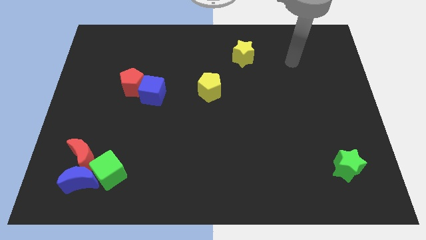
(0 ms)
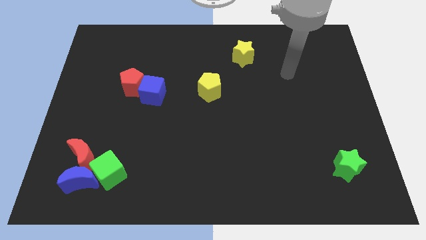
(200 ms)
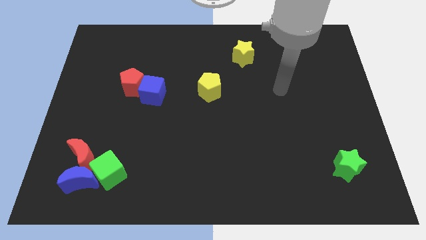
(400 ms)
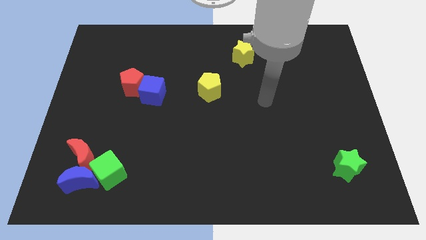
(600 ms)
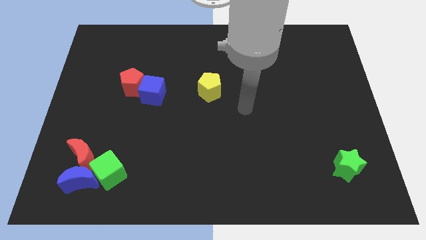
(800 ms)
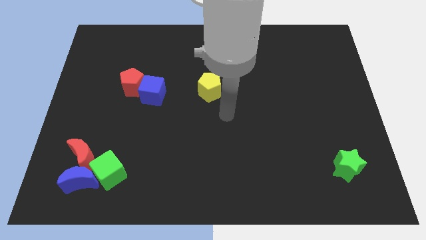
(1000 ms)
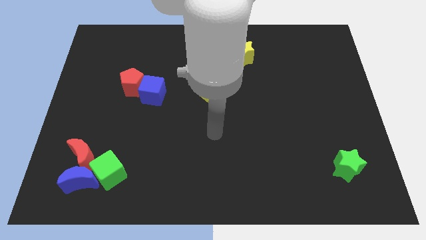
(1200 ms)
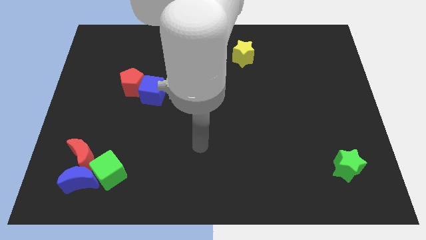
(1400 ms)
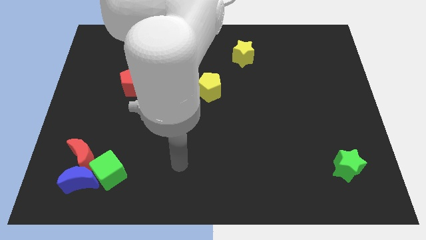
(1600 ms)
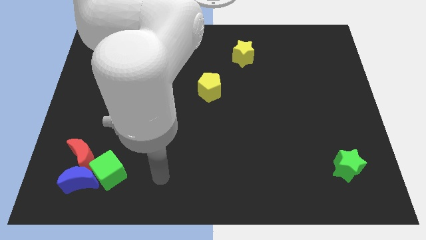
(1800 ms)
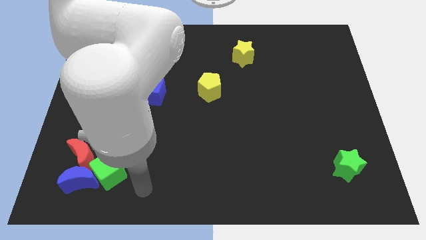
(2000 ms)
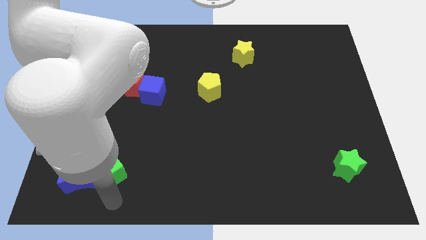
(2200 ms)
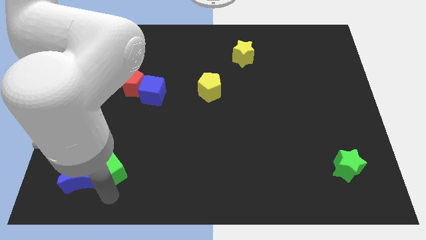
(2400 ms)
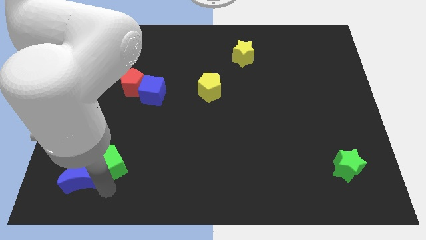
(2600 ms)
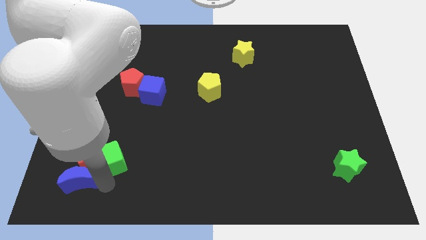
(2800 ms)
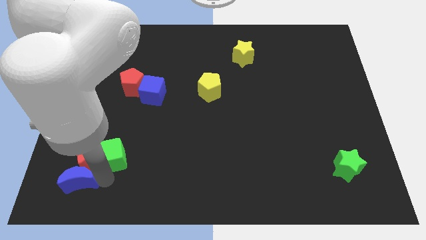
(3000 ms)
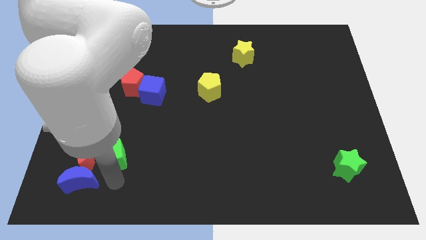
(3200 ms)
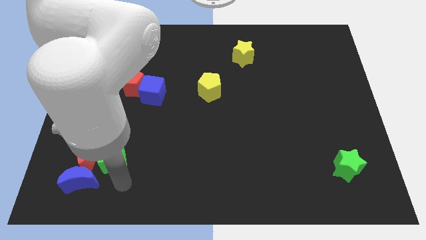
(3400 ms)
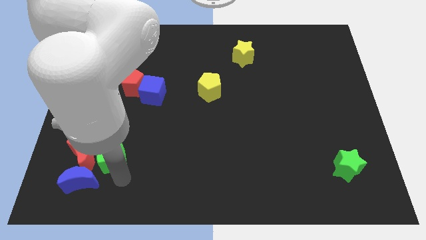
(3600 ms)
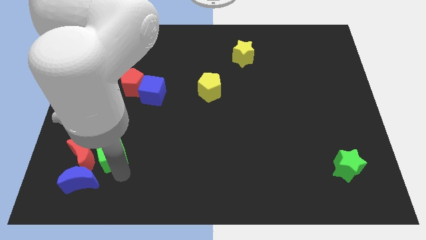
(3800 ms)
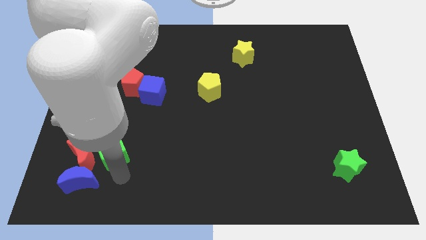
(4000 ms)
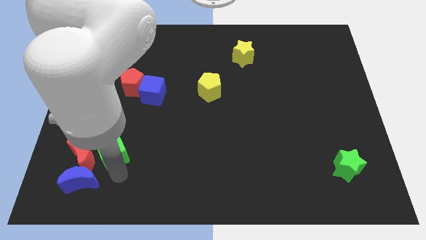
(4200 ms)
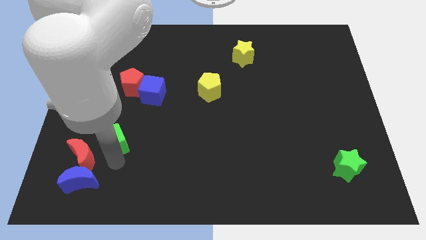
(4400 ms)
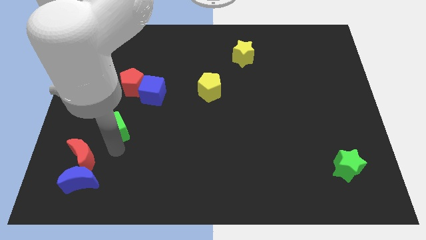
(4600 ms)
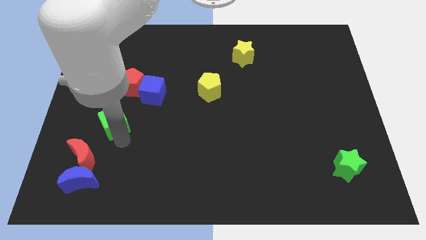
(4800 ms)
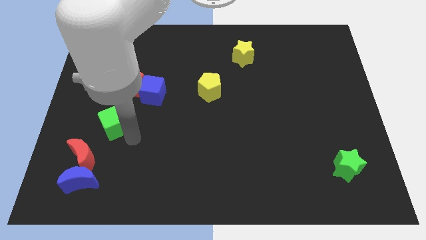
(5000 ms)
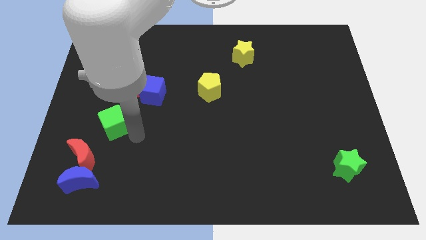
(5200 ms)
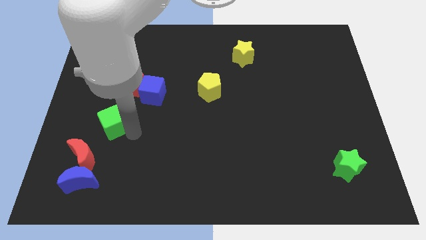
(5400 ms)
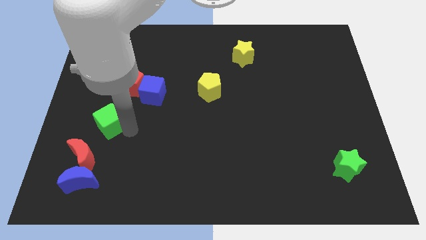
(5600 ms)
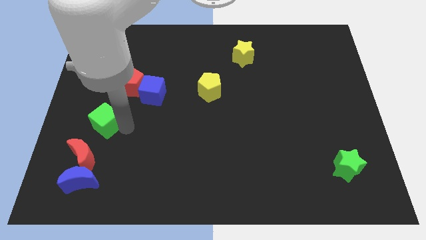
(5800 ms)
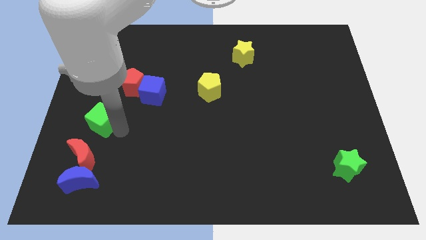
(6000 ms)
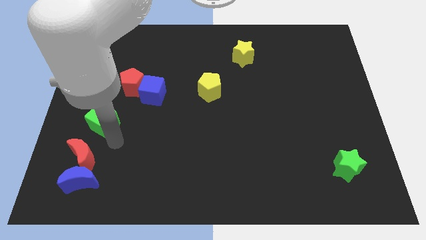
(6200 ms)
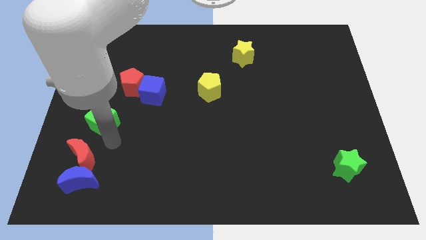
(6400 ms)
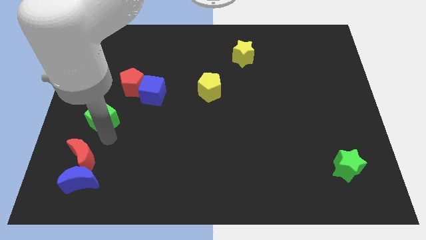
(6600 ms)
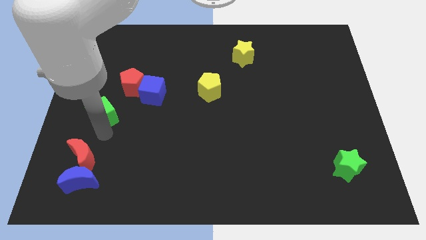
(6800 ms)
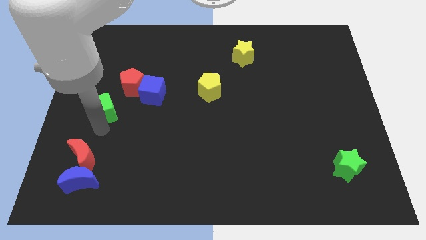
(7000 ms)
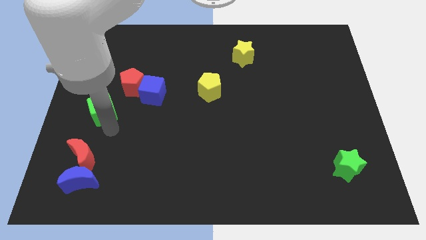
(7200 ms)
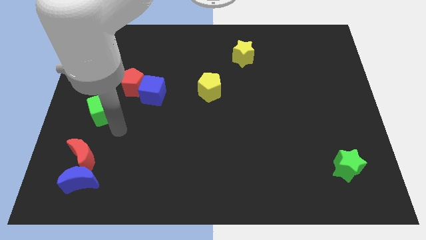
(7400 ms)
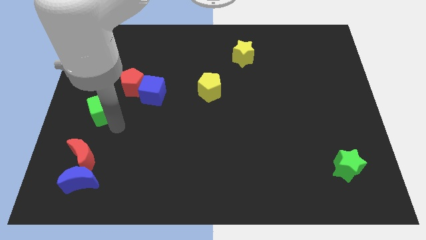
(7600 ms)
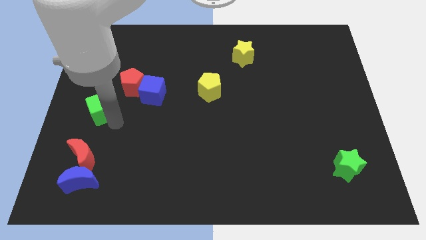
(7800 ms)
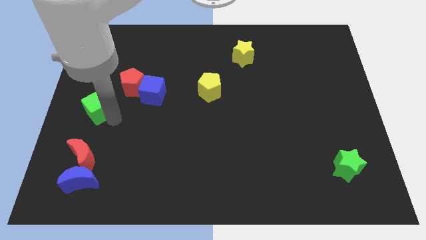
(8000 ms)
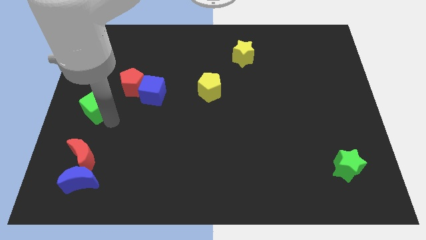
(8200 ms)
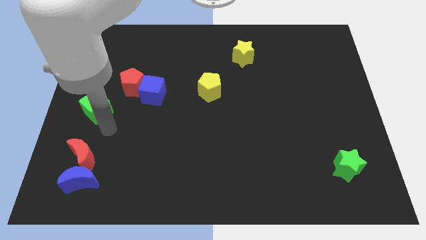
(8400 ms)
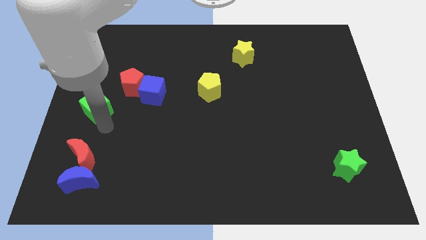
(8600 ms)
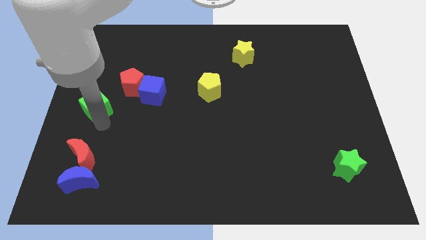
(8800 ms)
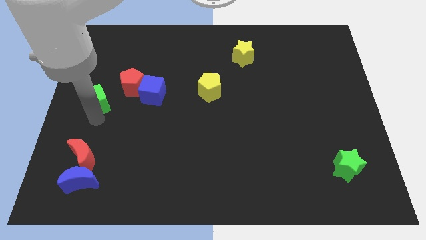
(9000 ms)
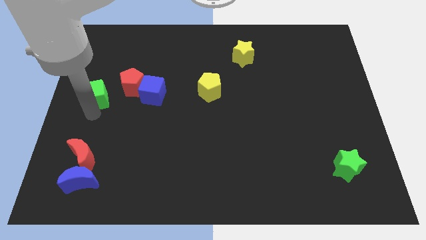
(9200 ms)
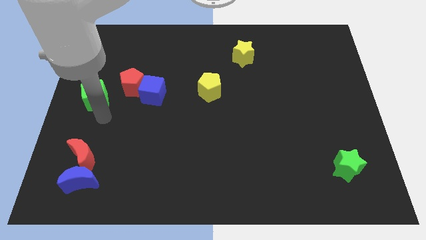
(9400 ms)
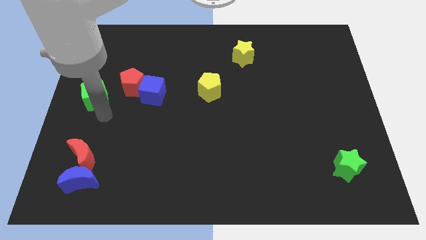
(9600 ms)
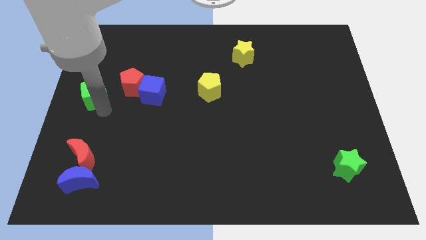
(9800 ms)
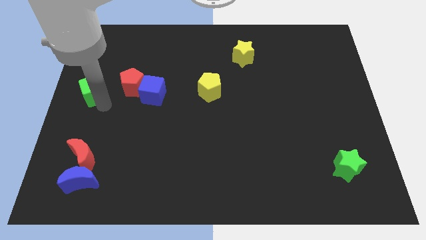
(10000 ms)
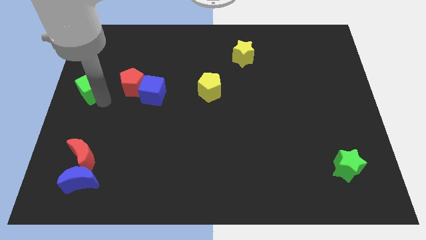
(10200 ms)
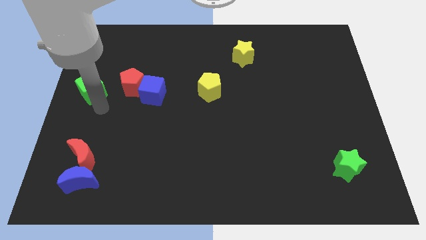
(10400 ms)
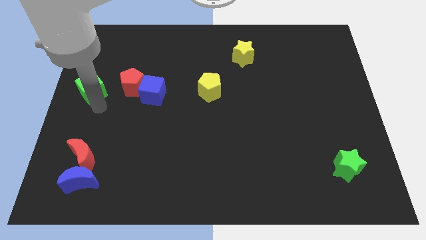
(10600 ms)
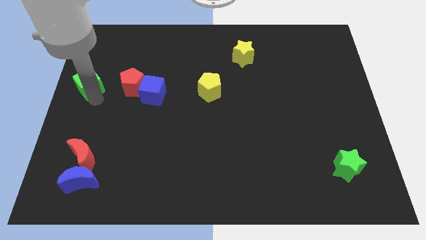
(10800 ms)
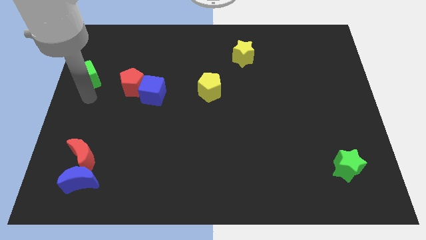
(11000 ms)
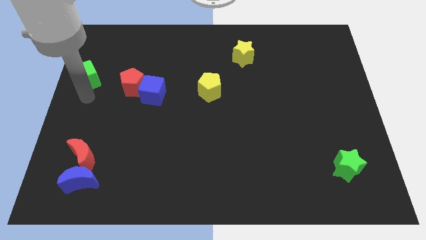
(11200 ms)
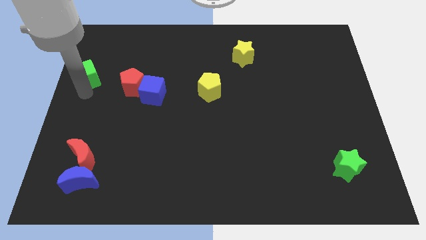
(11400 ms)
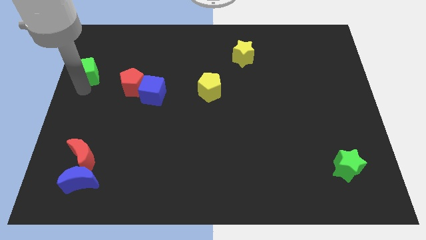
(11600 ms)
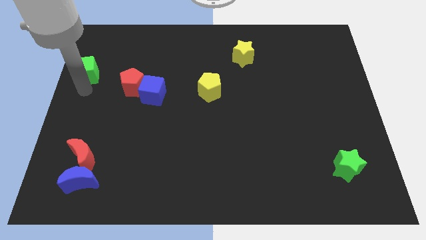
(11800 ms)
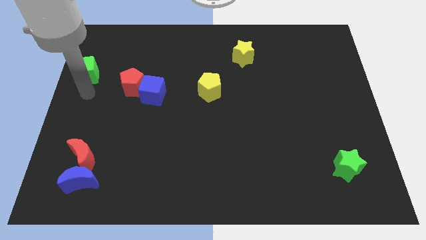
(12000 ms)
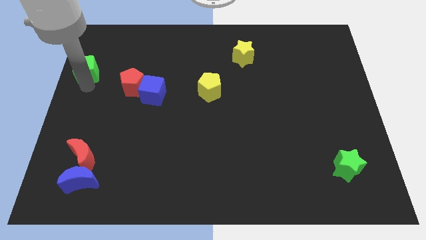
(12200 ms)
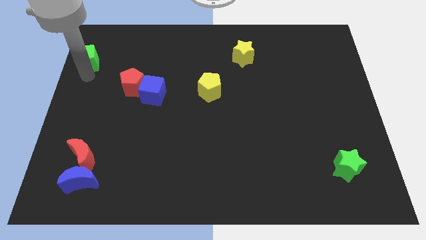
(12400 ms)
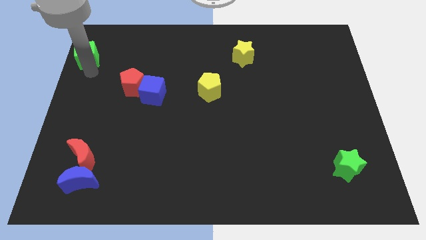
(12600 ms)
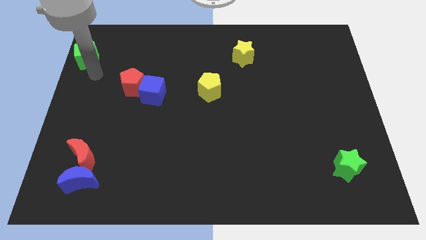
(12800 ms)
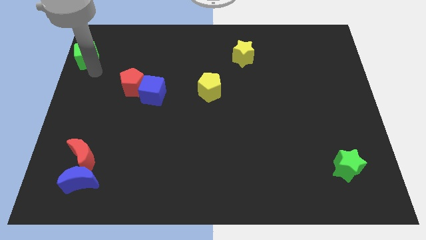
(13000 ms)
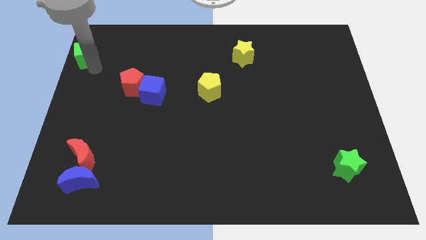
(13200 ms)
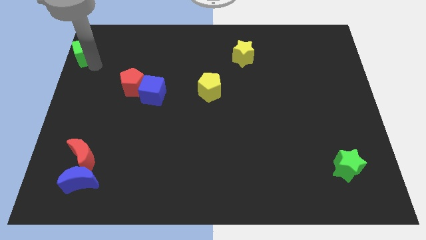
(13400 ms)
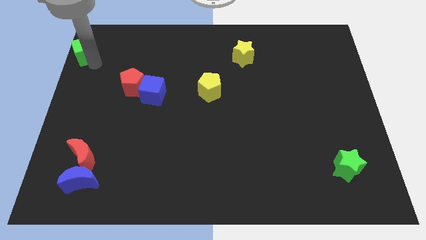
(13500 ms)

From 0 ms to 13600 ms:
put the green cube to the top left
